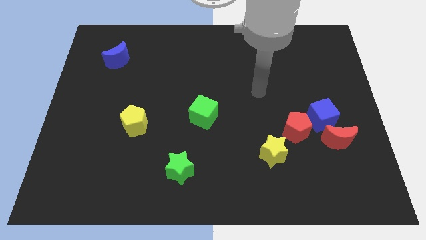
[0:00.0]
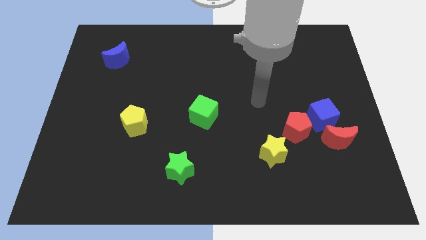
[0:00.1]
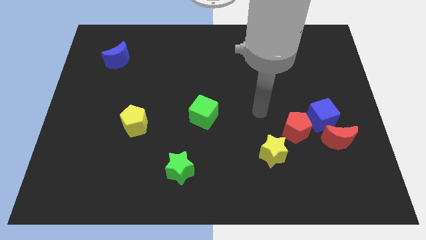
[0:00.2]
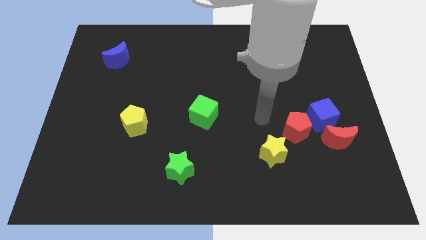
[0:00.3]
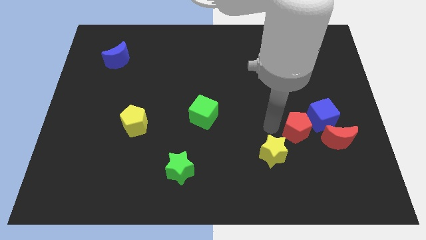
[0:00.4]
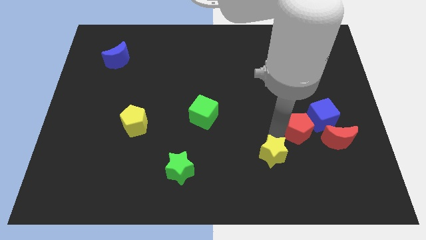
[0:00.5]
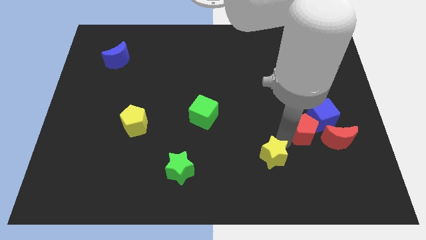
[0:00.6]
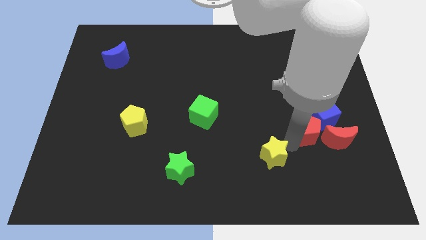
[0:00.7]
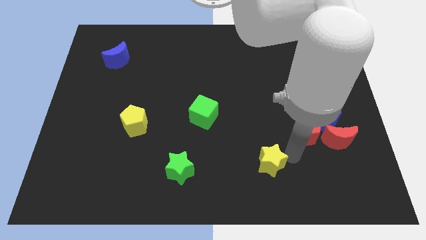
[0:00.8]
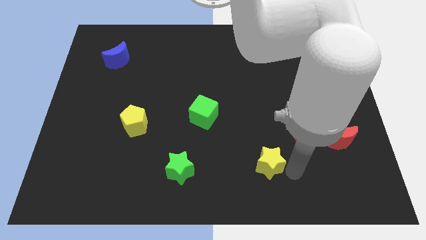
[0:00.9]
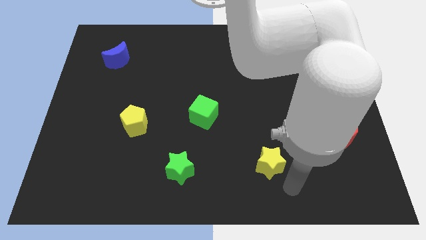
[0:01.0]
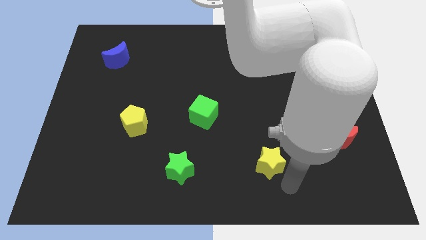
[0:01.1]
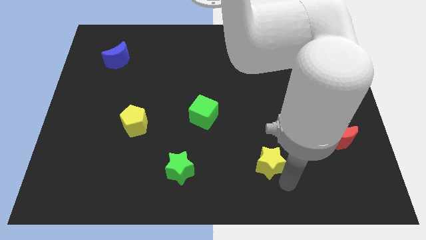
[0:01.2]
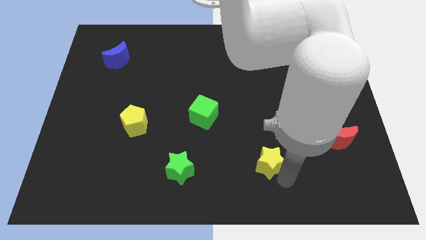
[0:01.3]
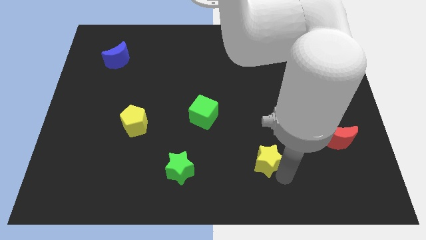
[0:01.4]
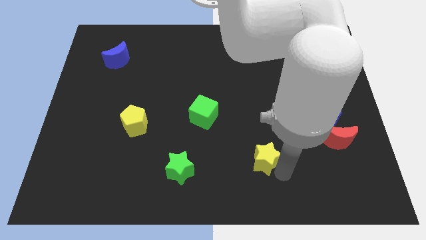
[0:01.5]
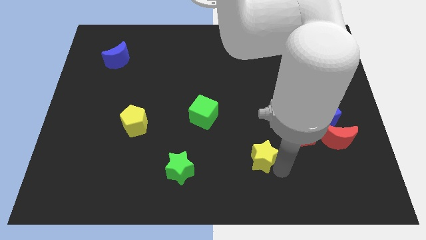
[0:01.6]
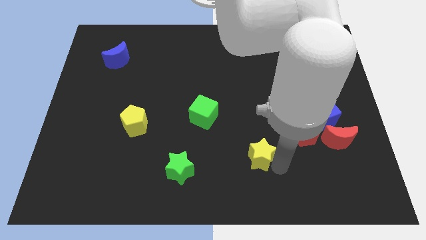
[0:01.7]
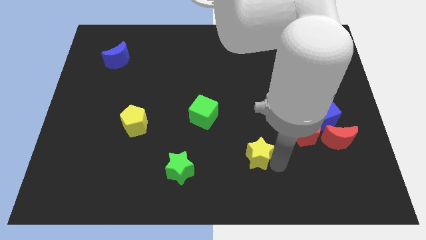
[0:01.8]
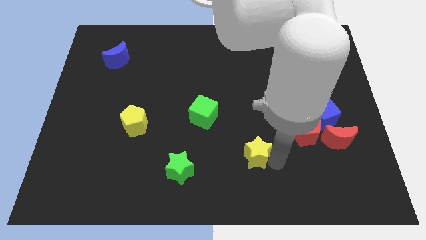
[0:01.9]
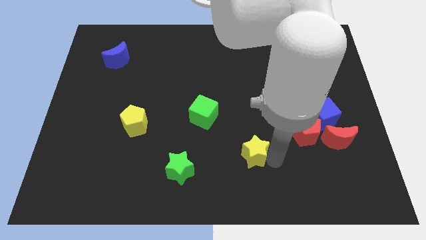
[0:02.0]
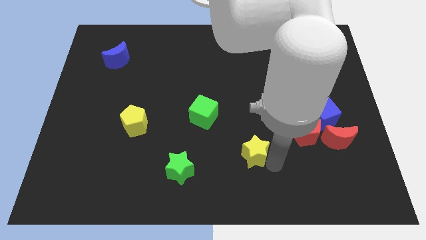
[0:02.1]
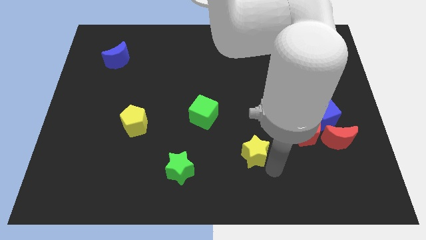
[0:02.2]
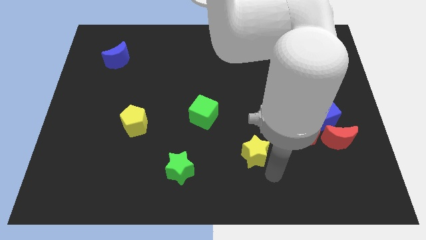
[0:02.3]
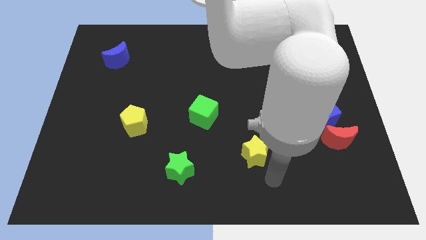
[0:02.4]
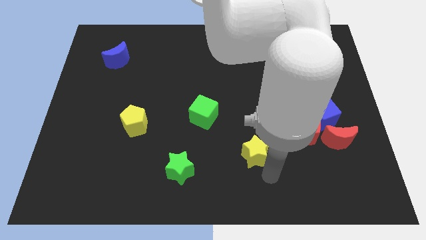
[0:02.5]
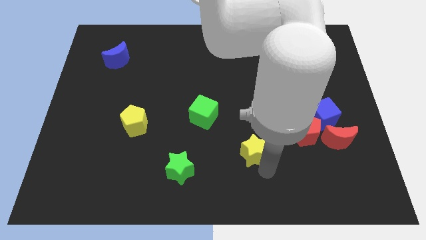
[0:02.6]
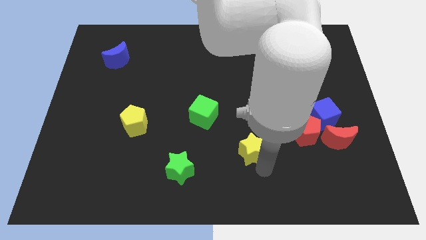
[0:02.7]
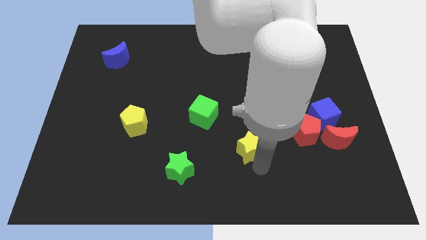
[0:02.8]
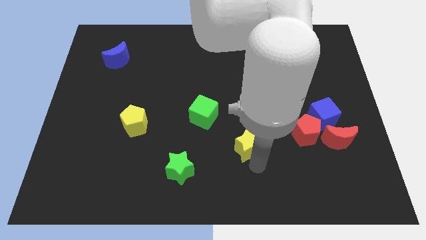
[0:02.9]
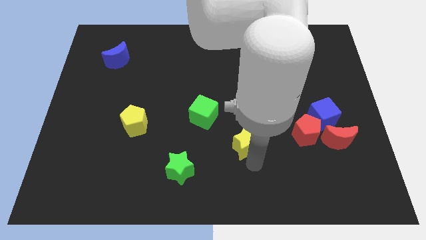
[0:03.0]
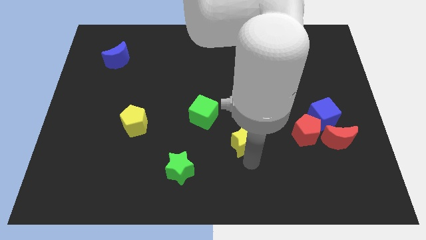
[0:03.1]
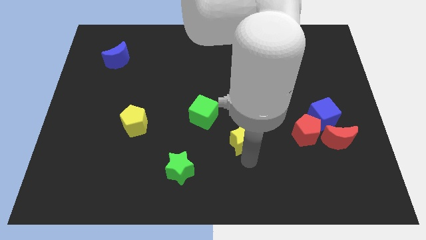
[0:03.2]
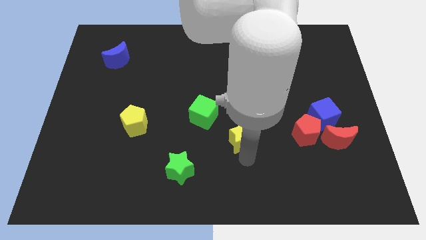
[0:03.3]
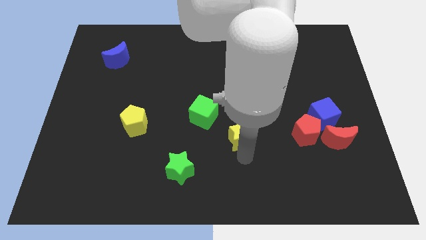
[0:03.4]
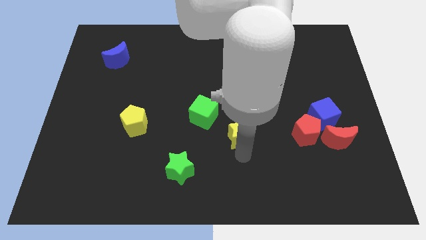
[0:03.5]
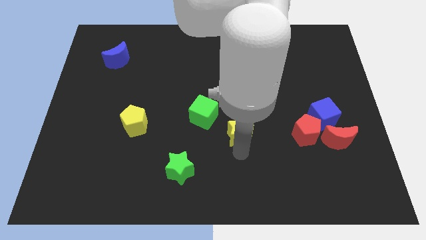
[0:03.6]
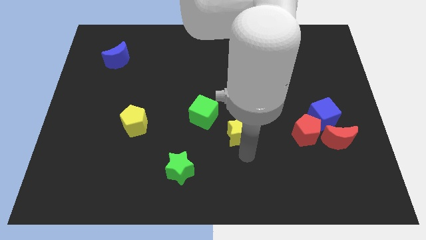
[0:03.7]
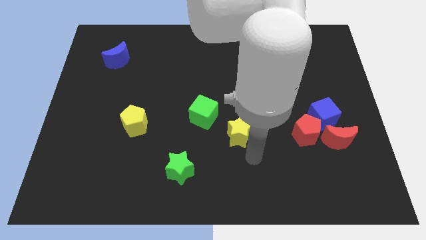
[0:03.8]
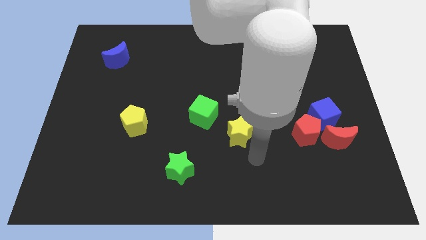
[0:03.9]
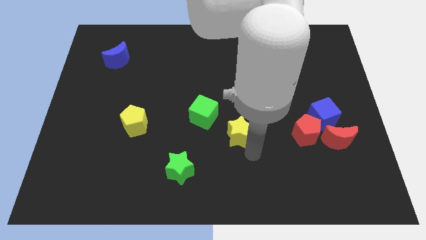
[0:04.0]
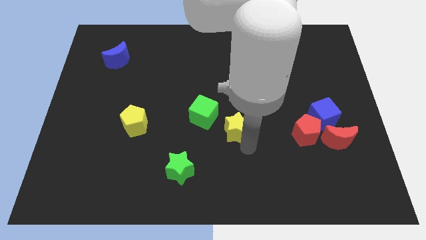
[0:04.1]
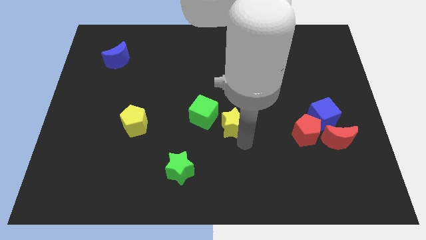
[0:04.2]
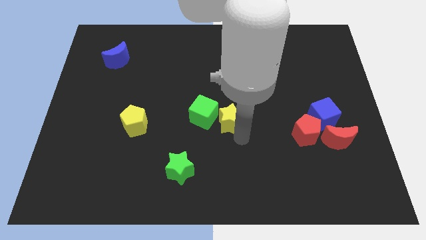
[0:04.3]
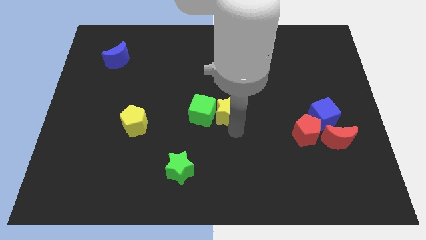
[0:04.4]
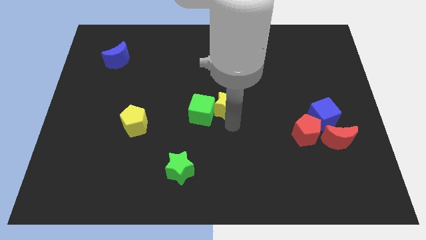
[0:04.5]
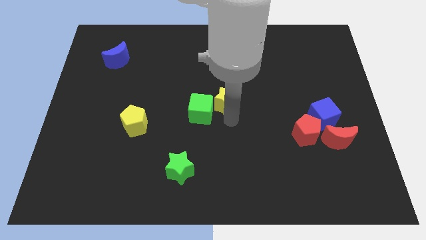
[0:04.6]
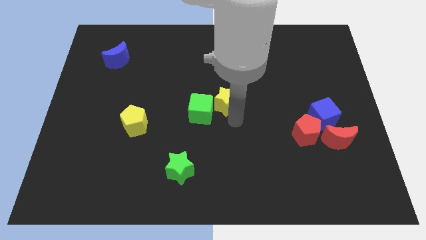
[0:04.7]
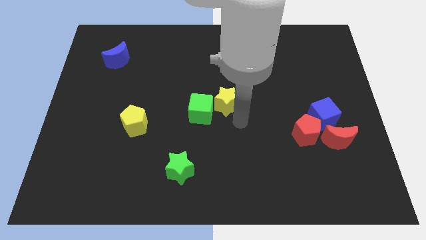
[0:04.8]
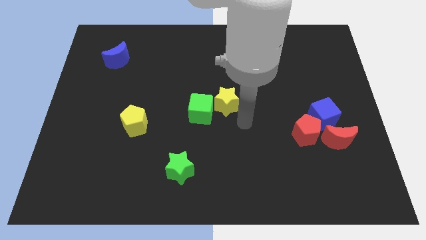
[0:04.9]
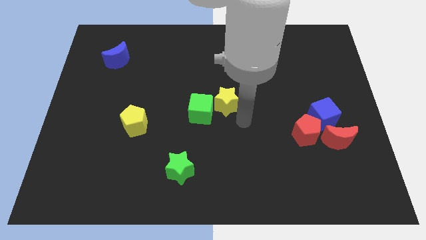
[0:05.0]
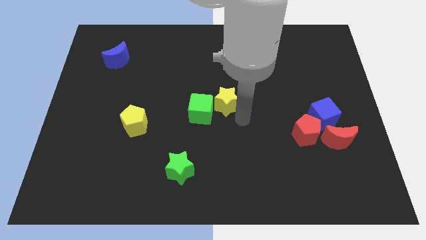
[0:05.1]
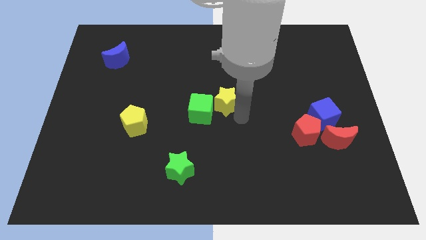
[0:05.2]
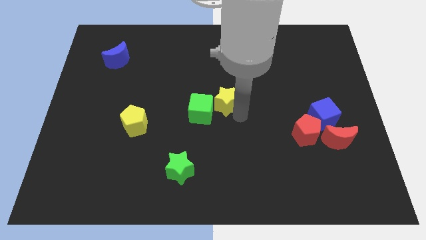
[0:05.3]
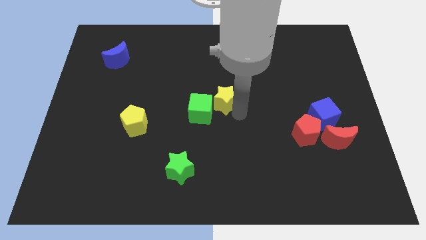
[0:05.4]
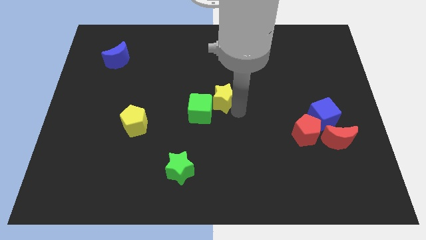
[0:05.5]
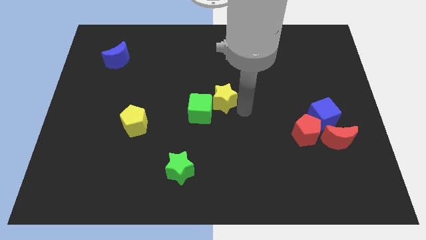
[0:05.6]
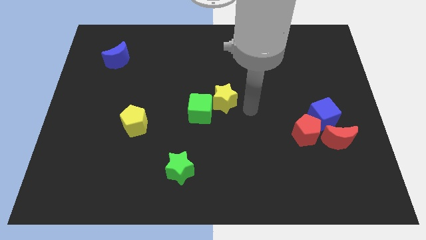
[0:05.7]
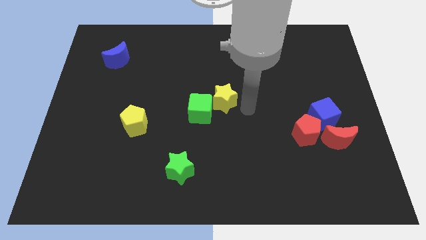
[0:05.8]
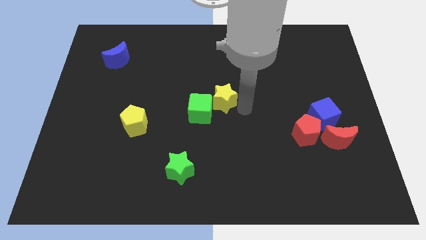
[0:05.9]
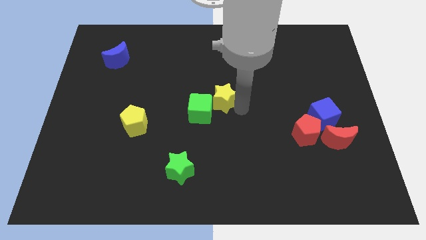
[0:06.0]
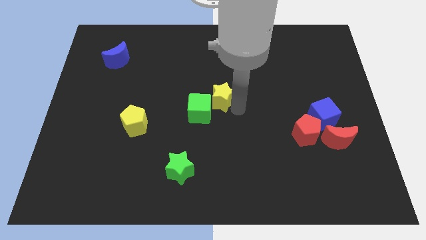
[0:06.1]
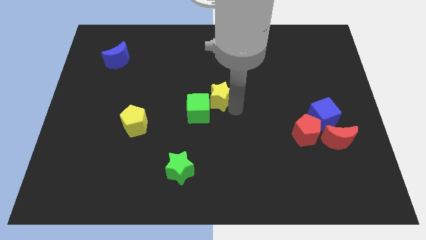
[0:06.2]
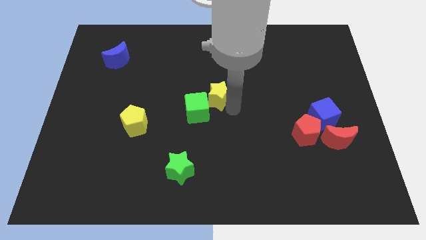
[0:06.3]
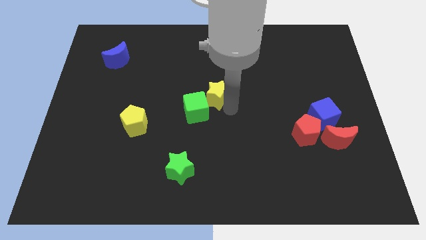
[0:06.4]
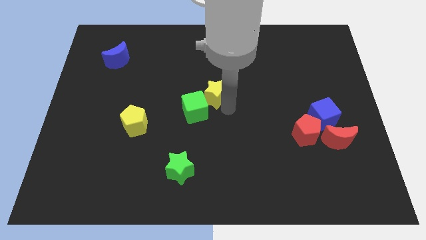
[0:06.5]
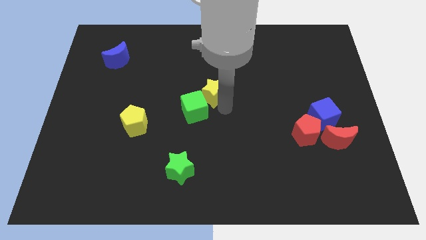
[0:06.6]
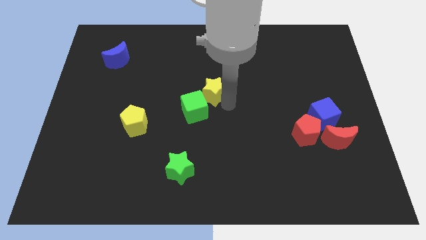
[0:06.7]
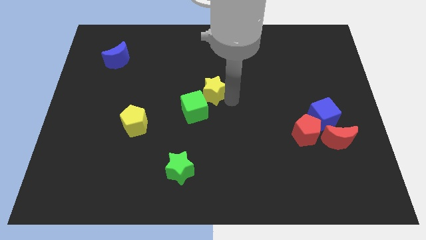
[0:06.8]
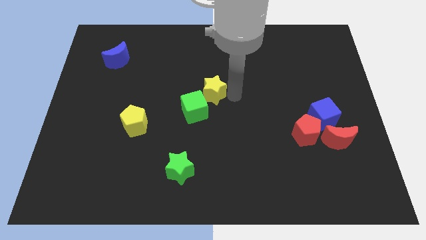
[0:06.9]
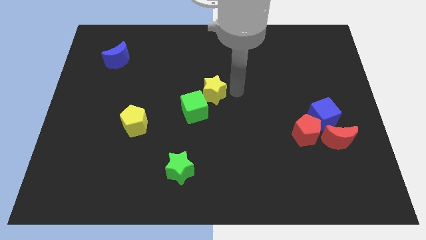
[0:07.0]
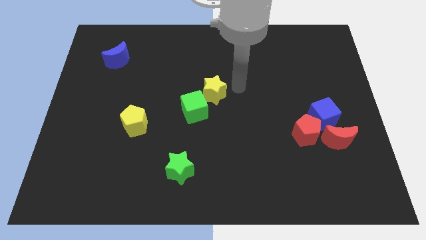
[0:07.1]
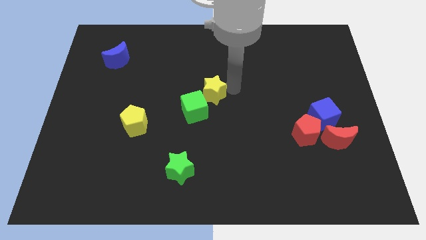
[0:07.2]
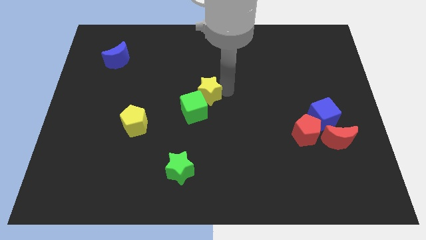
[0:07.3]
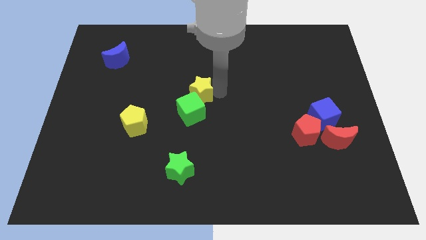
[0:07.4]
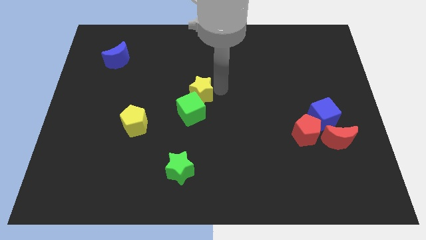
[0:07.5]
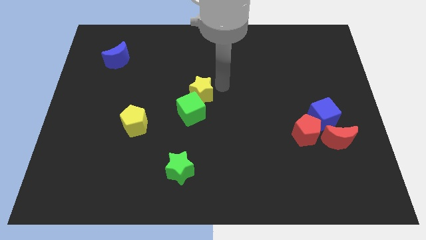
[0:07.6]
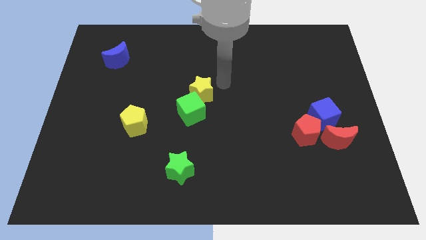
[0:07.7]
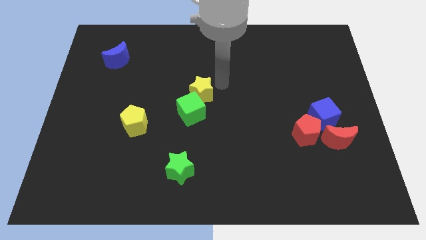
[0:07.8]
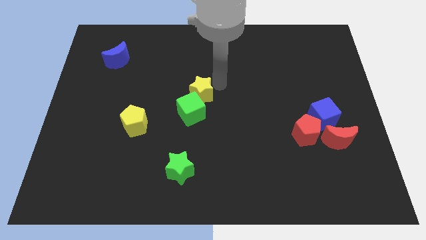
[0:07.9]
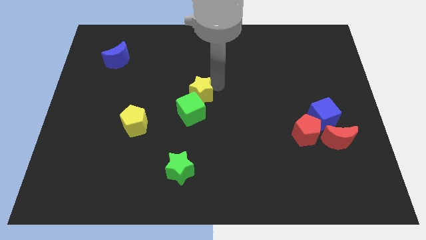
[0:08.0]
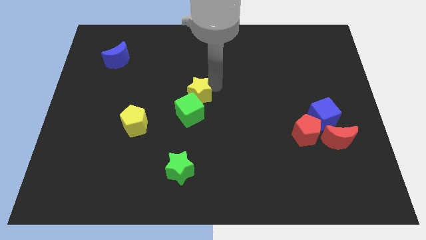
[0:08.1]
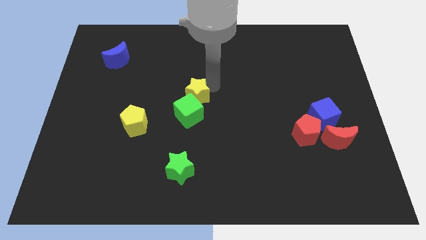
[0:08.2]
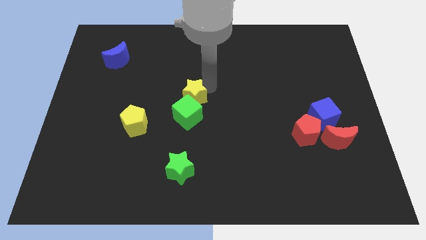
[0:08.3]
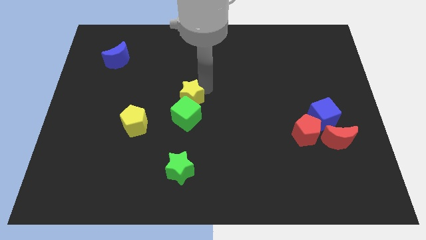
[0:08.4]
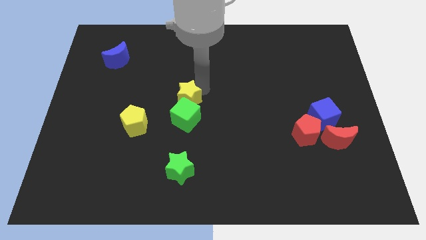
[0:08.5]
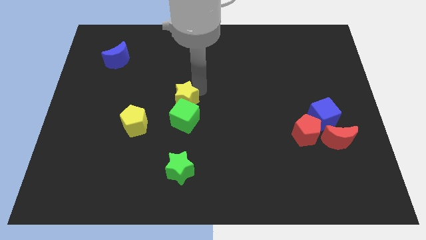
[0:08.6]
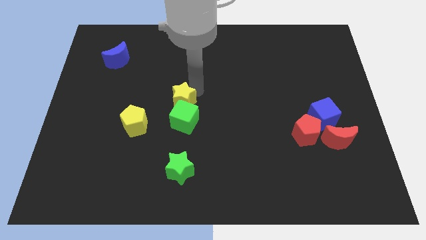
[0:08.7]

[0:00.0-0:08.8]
put the yellow star to the top right side of the yellow pentagon
